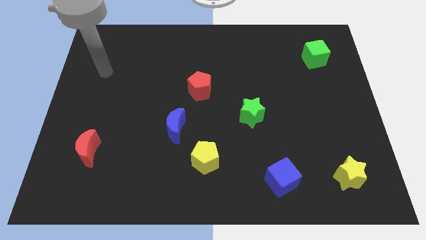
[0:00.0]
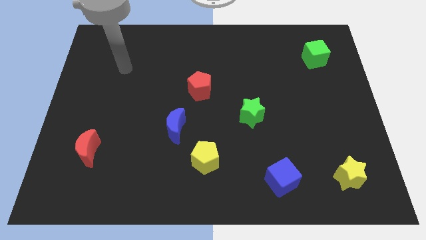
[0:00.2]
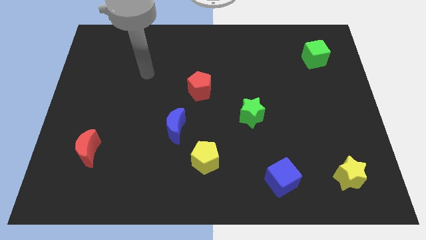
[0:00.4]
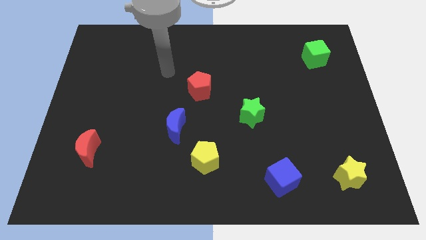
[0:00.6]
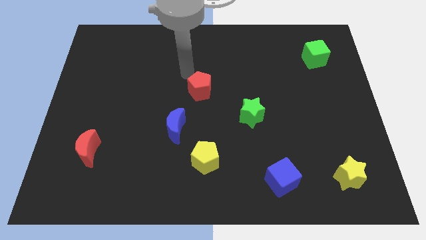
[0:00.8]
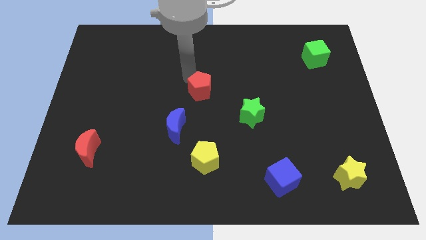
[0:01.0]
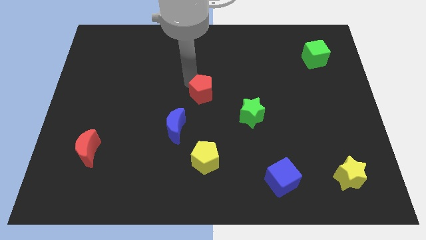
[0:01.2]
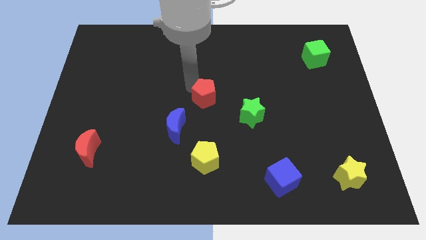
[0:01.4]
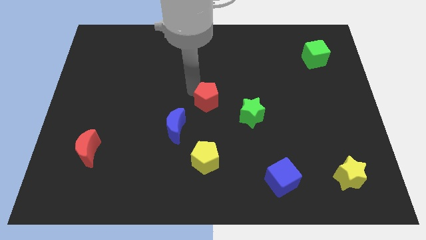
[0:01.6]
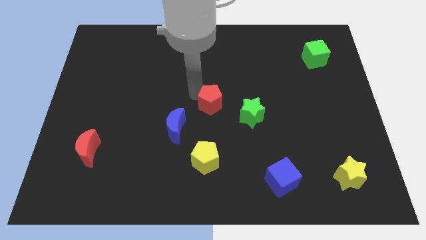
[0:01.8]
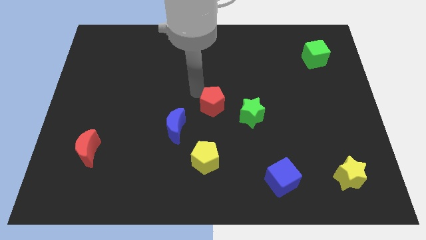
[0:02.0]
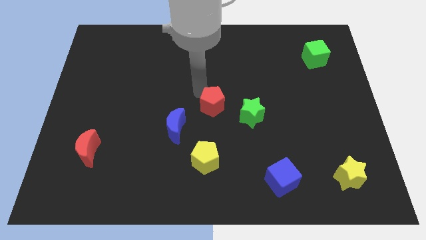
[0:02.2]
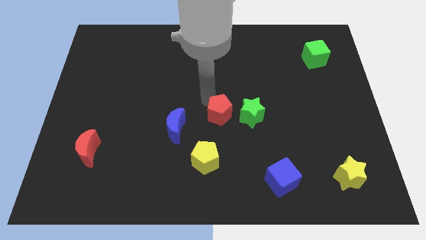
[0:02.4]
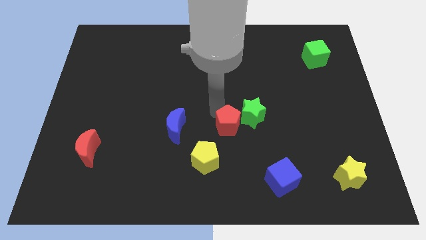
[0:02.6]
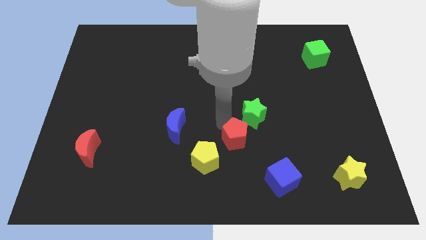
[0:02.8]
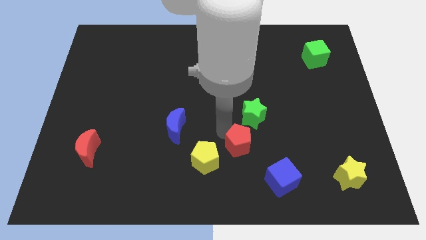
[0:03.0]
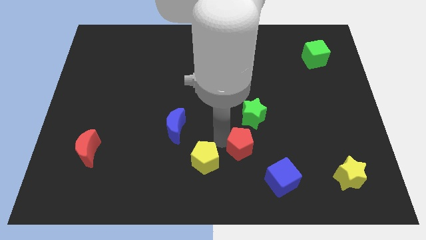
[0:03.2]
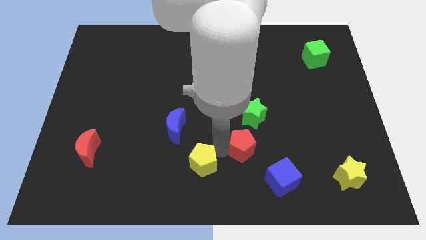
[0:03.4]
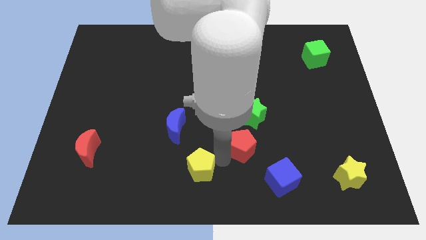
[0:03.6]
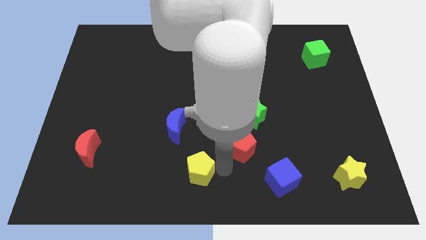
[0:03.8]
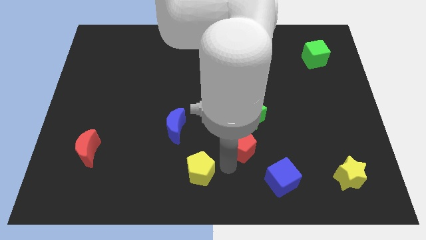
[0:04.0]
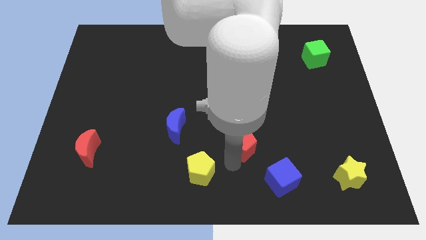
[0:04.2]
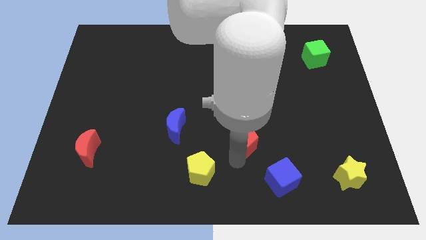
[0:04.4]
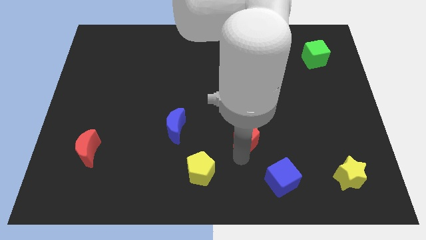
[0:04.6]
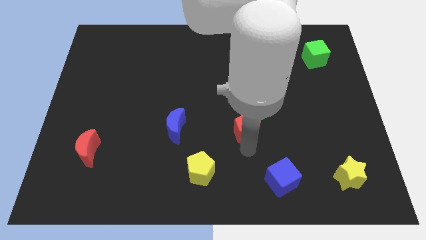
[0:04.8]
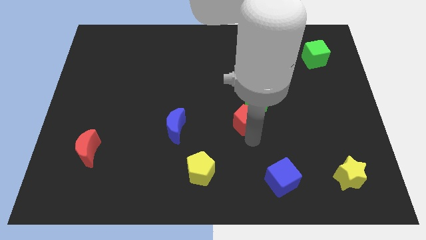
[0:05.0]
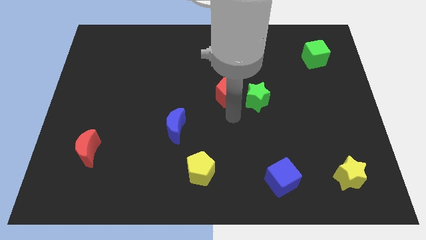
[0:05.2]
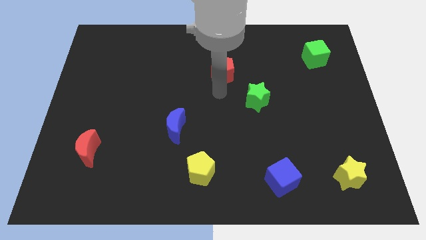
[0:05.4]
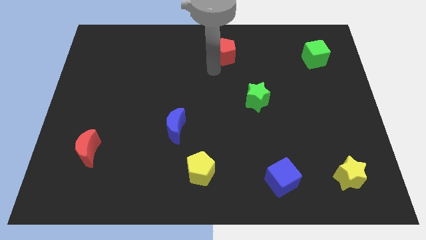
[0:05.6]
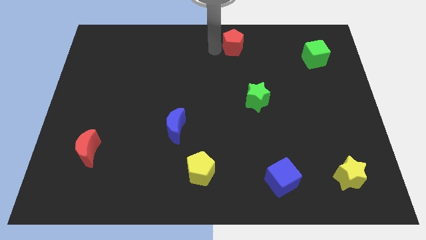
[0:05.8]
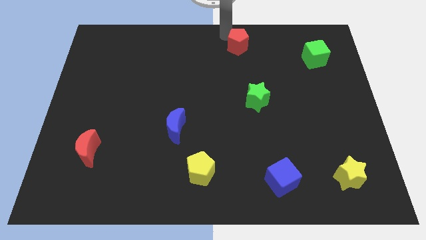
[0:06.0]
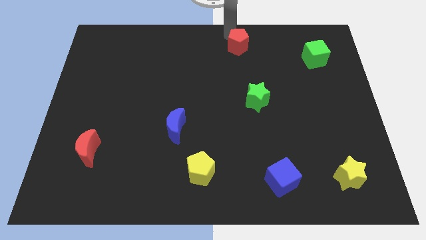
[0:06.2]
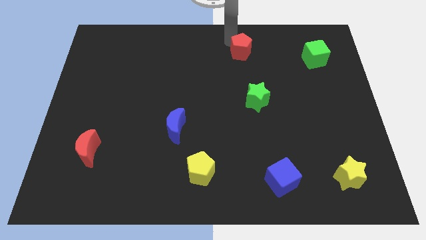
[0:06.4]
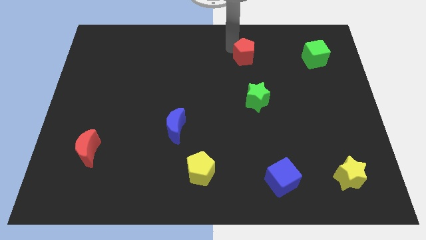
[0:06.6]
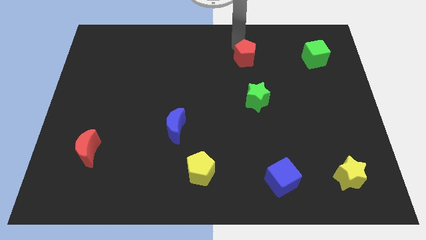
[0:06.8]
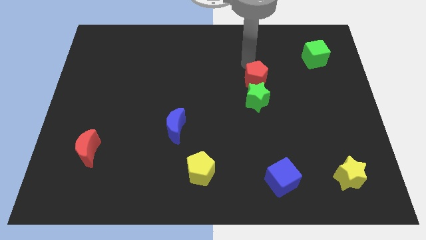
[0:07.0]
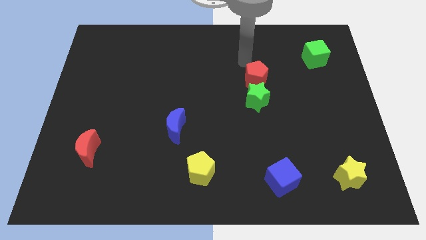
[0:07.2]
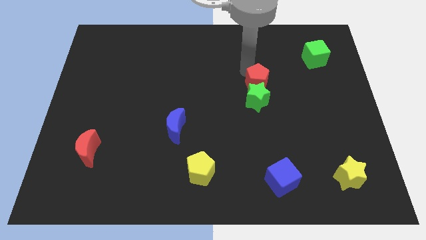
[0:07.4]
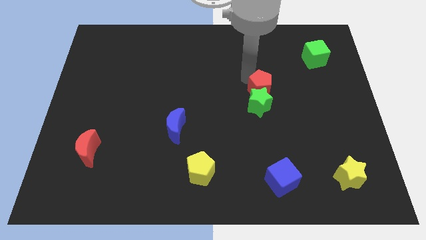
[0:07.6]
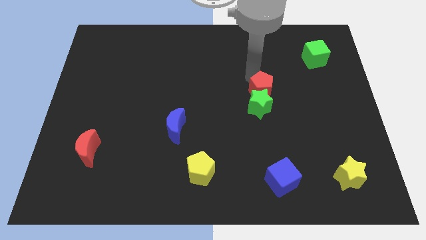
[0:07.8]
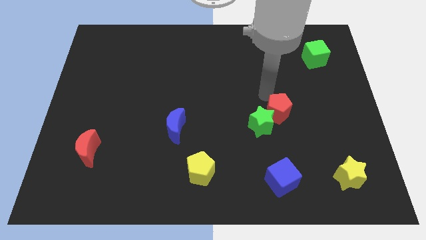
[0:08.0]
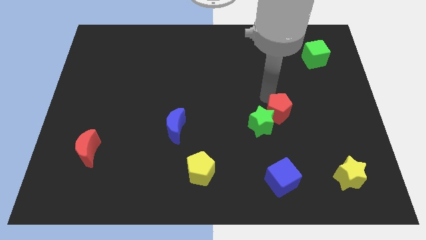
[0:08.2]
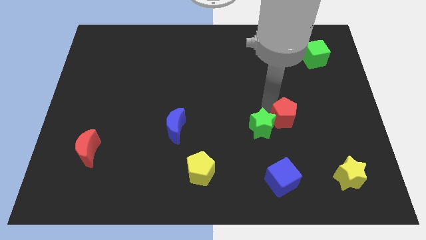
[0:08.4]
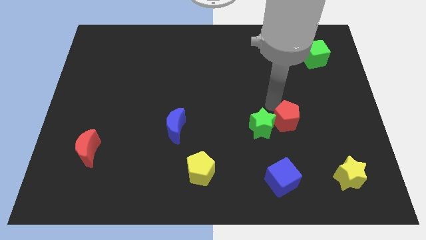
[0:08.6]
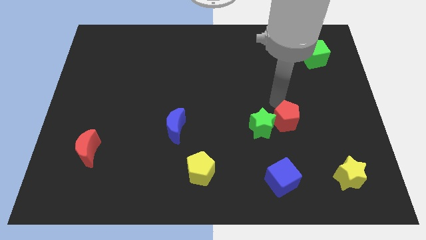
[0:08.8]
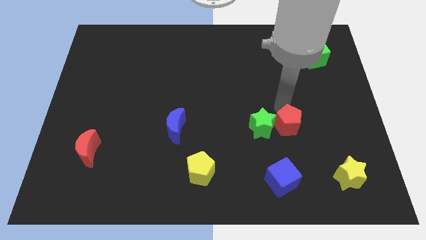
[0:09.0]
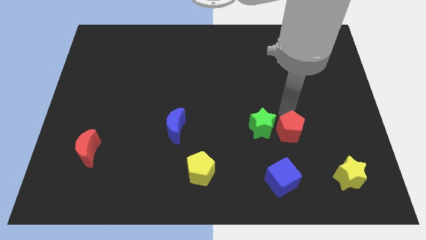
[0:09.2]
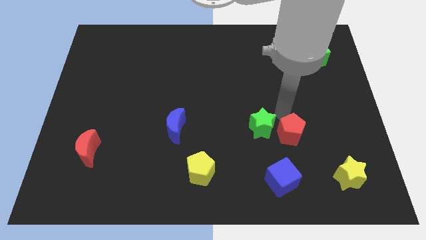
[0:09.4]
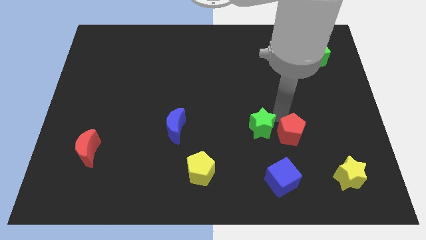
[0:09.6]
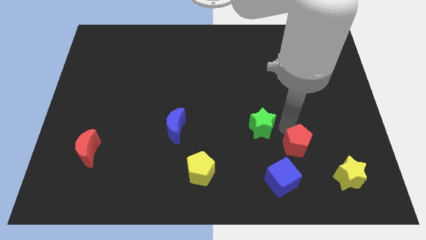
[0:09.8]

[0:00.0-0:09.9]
push the red pentagon to the top right side of the blue cube

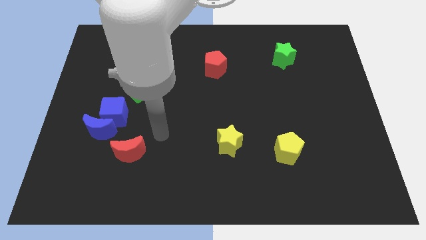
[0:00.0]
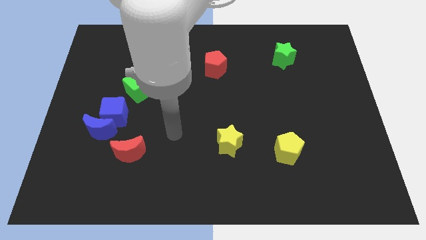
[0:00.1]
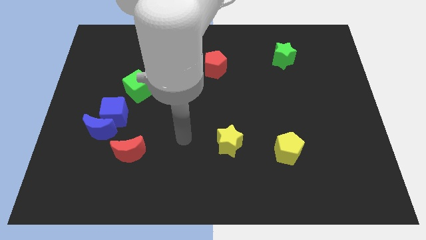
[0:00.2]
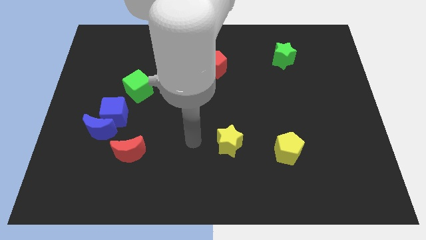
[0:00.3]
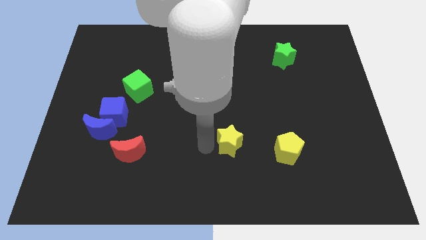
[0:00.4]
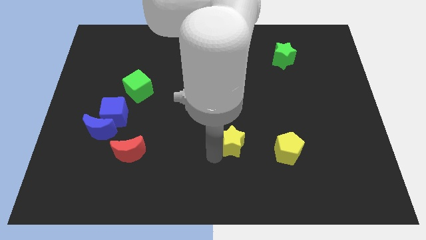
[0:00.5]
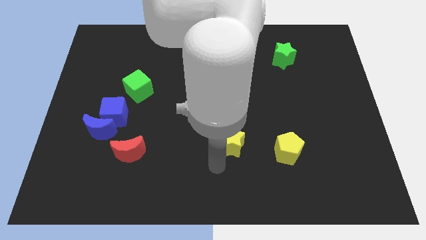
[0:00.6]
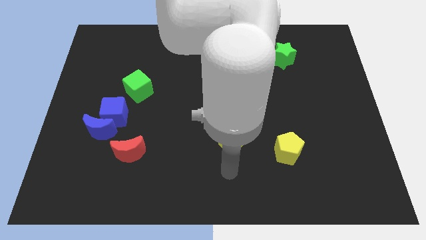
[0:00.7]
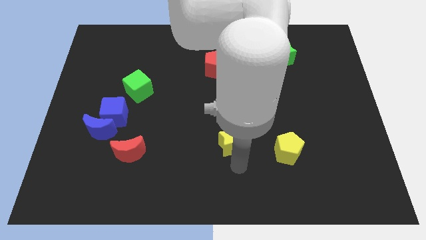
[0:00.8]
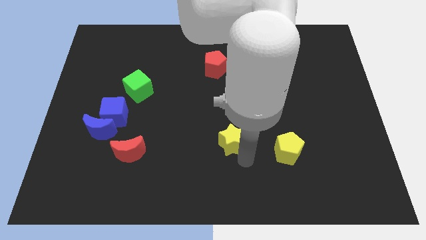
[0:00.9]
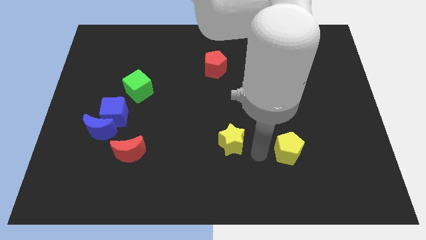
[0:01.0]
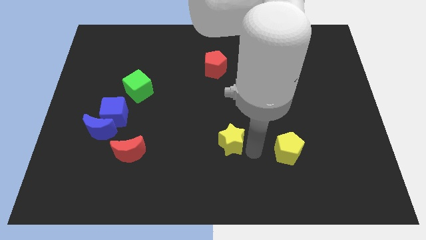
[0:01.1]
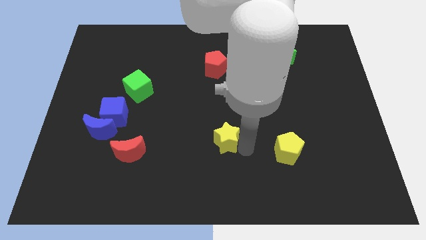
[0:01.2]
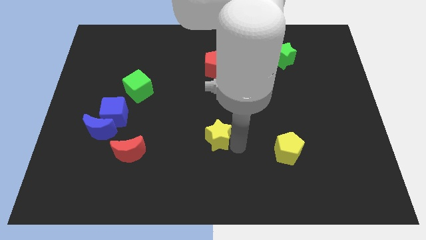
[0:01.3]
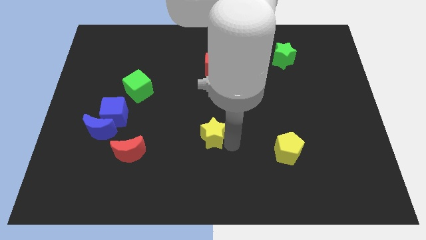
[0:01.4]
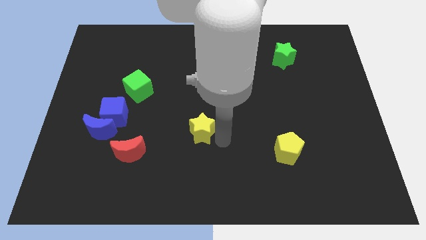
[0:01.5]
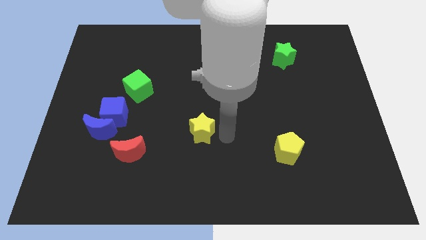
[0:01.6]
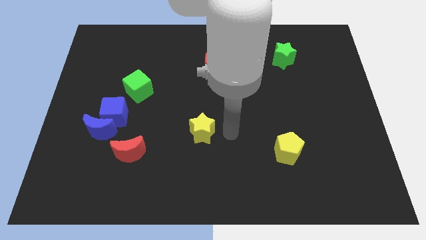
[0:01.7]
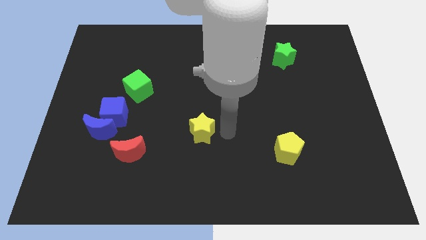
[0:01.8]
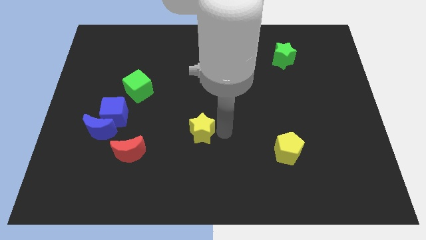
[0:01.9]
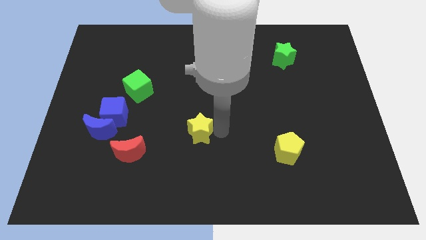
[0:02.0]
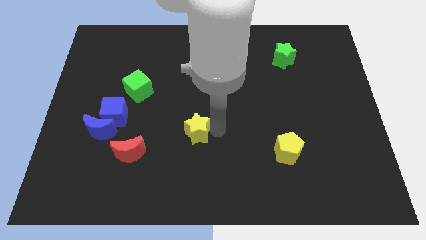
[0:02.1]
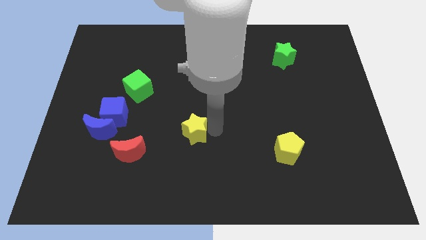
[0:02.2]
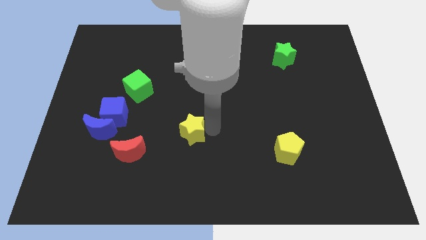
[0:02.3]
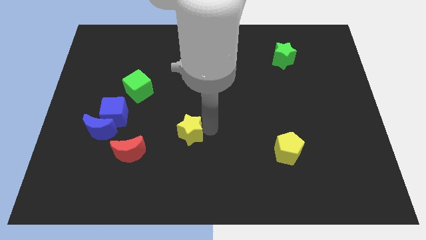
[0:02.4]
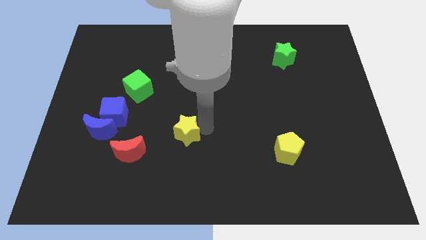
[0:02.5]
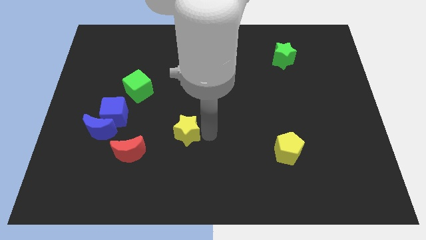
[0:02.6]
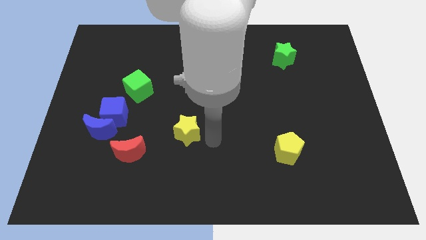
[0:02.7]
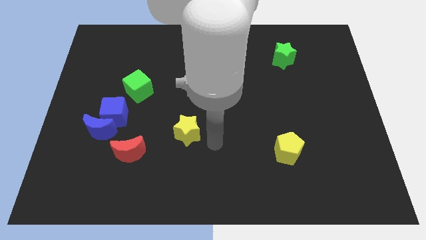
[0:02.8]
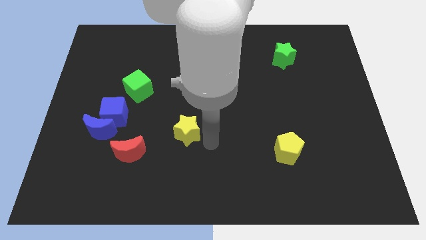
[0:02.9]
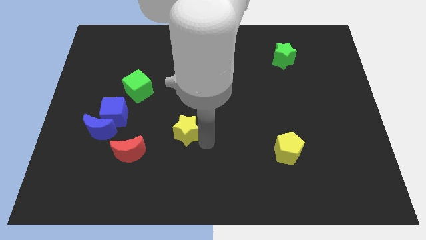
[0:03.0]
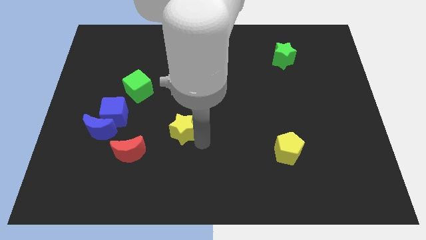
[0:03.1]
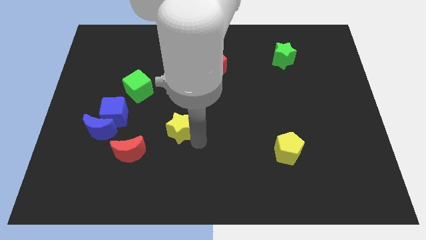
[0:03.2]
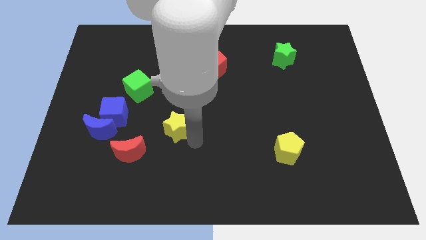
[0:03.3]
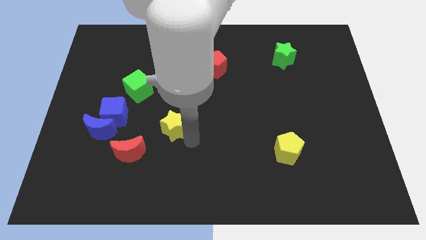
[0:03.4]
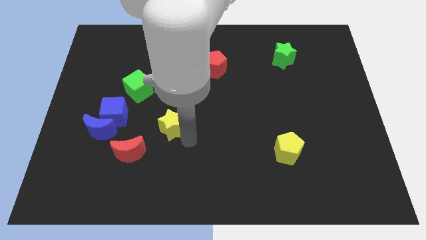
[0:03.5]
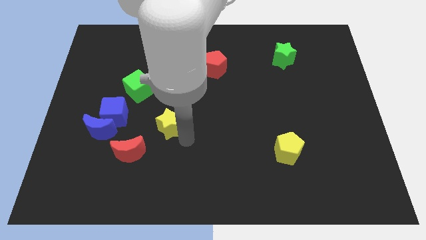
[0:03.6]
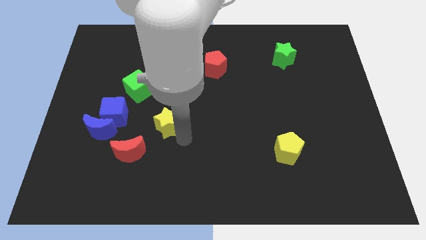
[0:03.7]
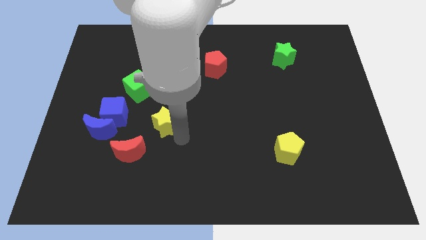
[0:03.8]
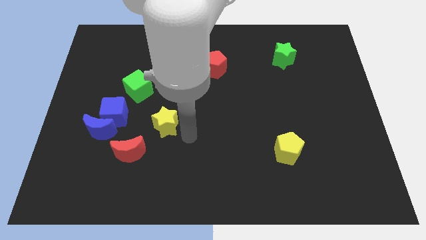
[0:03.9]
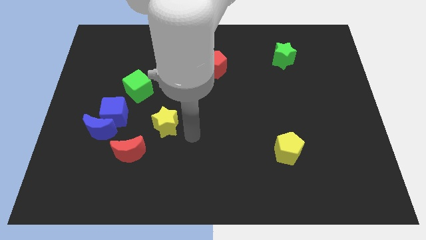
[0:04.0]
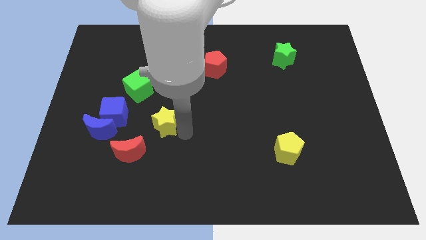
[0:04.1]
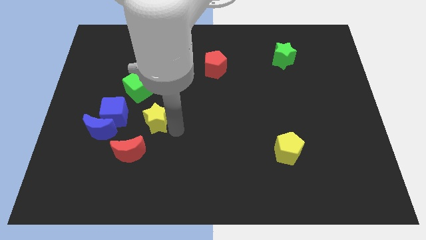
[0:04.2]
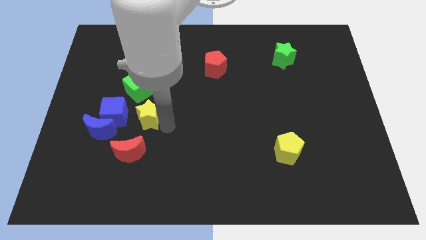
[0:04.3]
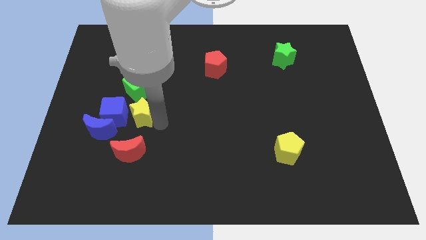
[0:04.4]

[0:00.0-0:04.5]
put the yellow star diagonally up and to the right of the blue moon
